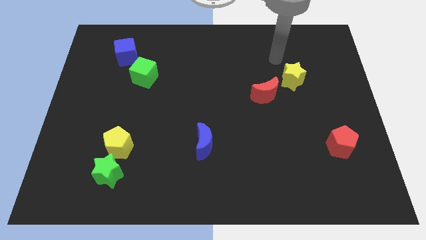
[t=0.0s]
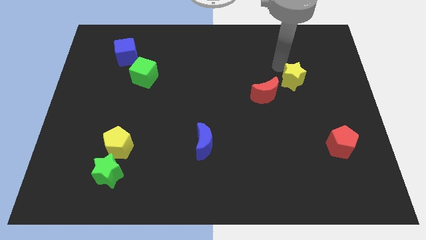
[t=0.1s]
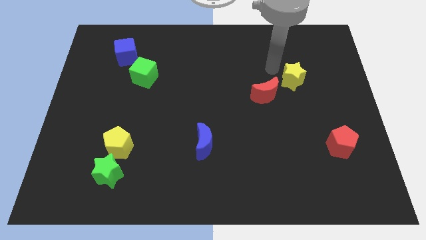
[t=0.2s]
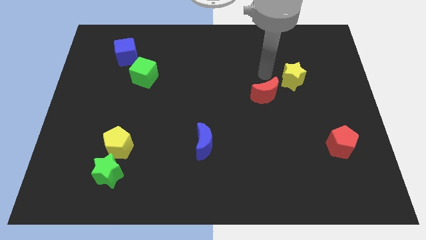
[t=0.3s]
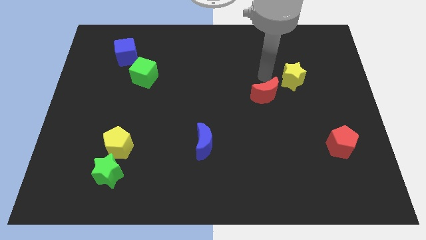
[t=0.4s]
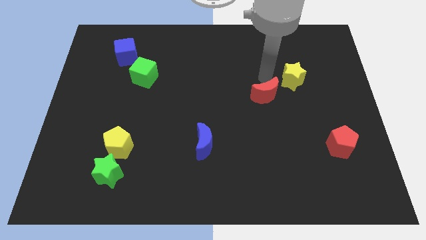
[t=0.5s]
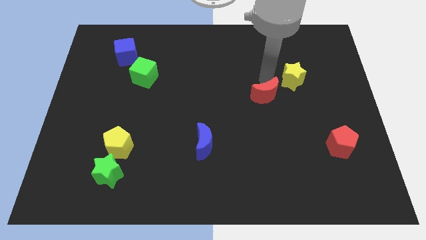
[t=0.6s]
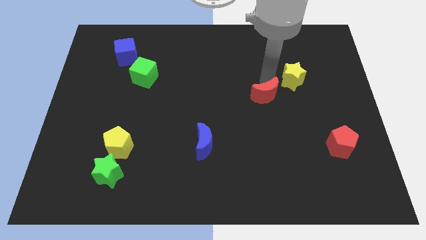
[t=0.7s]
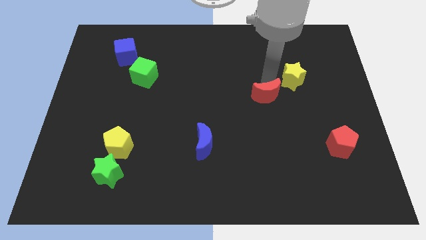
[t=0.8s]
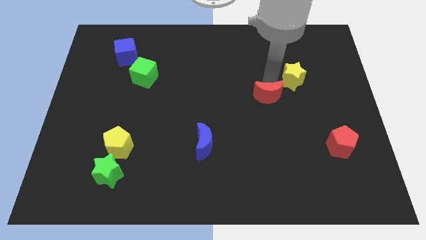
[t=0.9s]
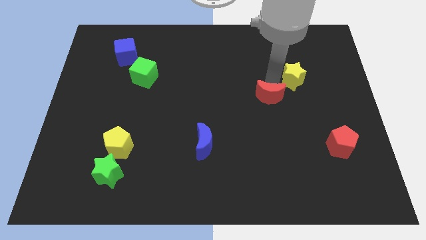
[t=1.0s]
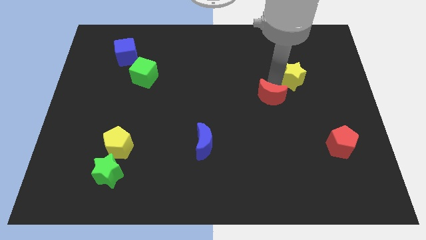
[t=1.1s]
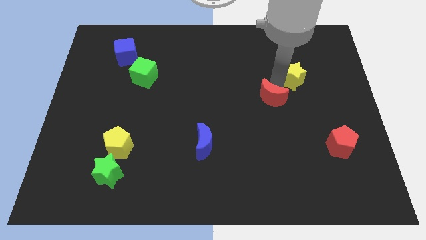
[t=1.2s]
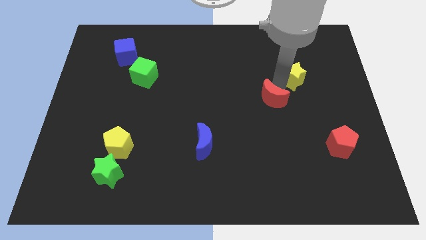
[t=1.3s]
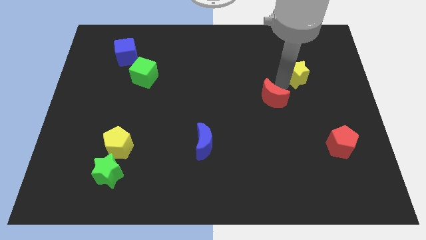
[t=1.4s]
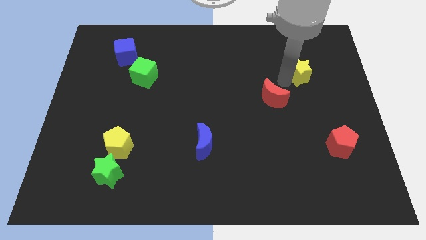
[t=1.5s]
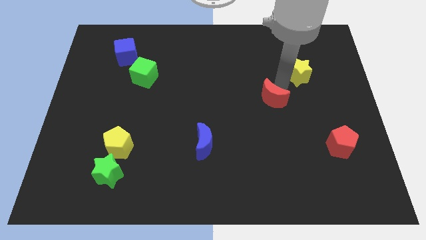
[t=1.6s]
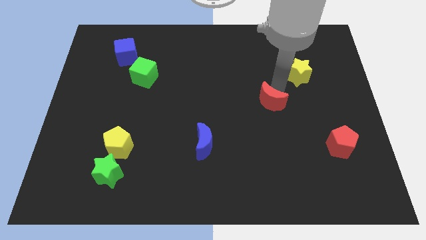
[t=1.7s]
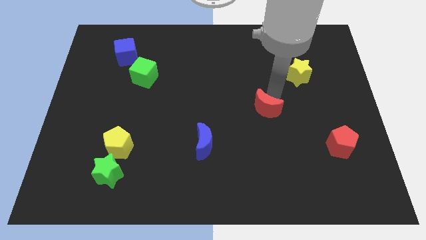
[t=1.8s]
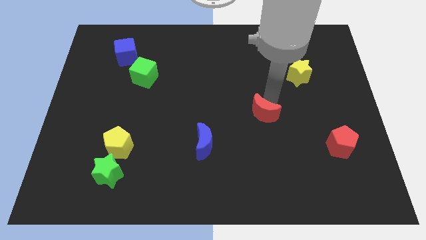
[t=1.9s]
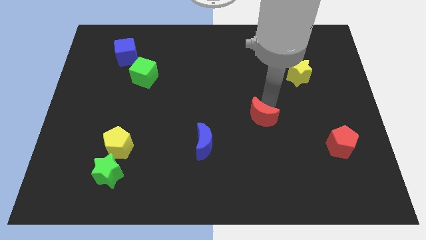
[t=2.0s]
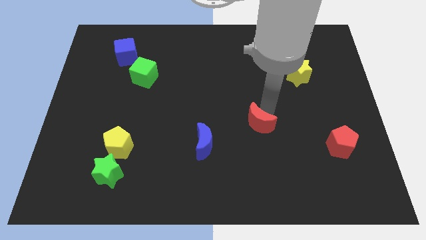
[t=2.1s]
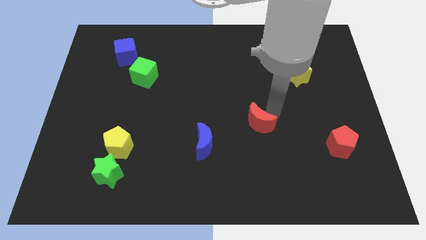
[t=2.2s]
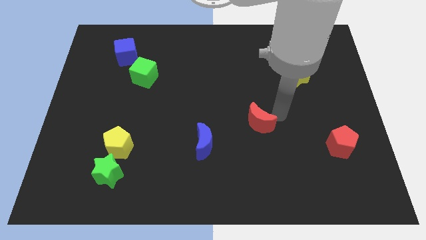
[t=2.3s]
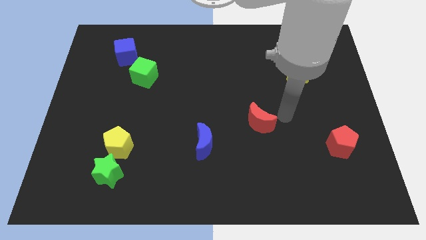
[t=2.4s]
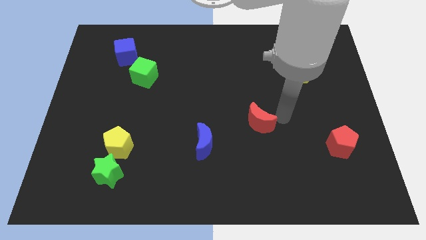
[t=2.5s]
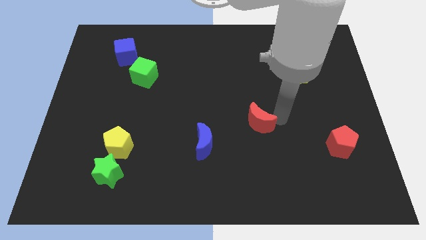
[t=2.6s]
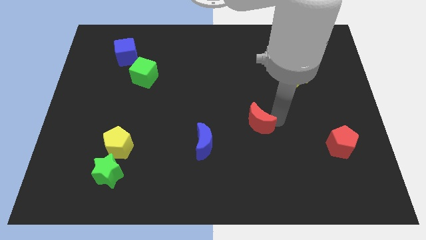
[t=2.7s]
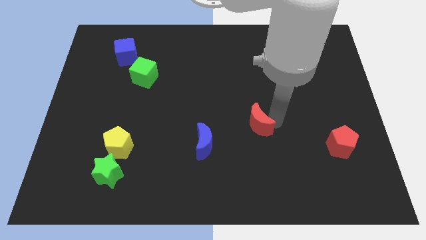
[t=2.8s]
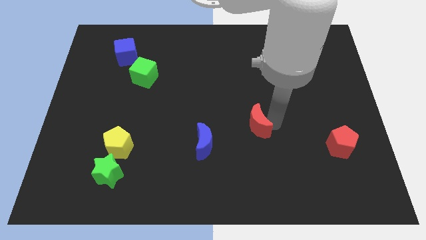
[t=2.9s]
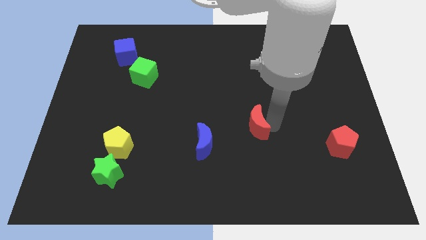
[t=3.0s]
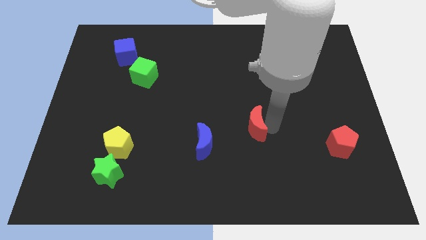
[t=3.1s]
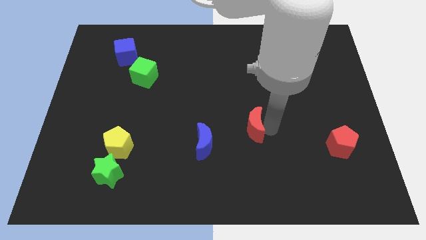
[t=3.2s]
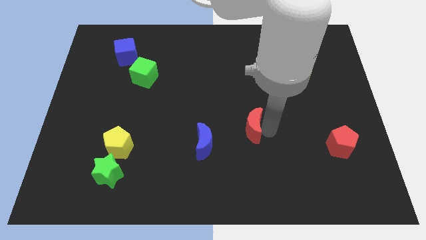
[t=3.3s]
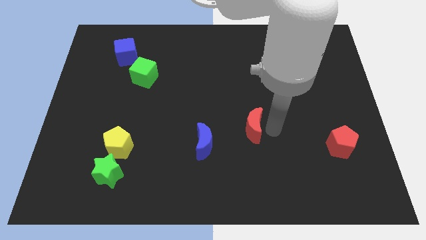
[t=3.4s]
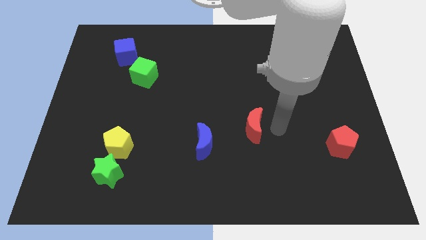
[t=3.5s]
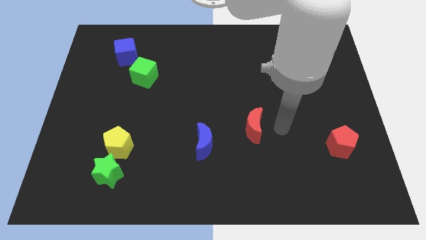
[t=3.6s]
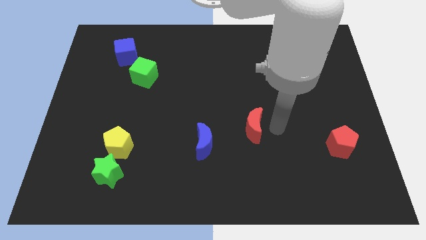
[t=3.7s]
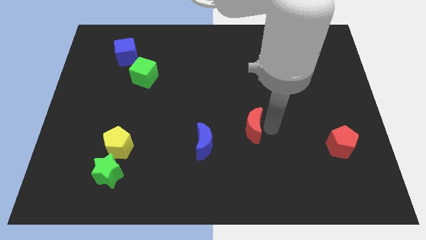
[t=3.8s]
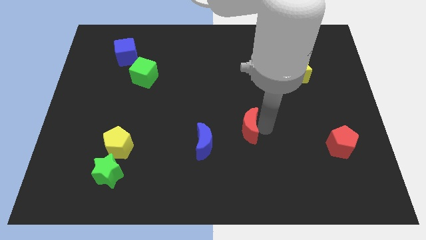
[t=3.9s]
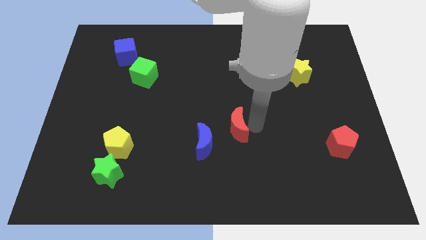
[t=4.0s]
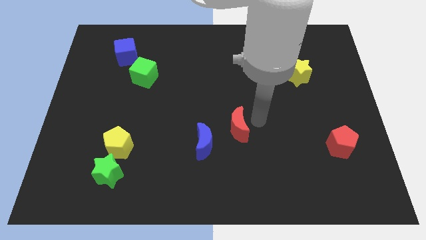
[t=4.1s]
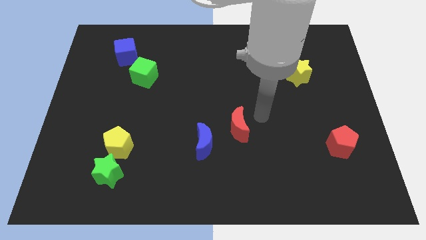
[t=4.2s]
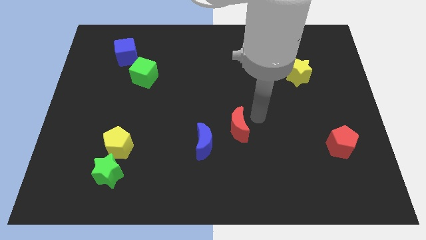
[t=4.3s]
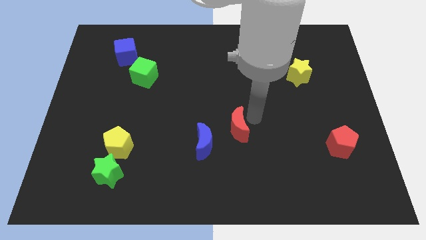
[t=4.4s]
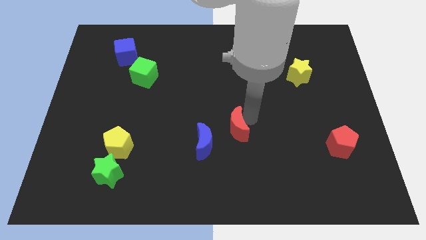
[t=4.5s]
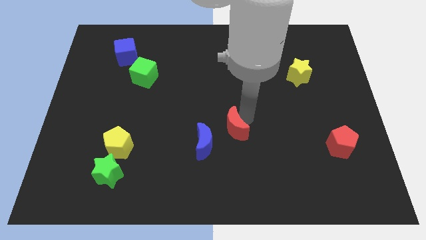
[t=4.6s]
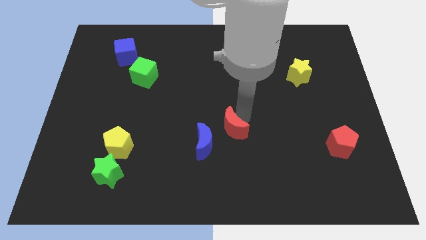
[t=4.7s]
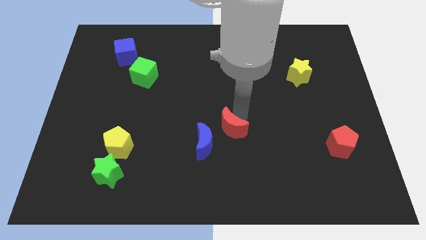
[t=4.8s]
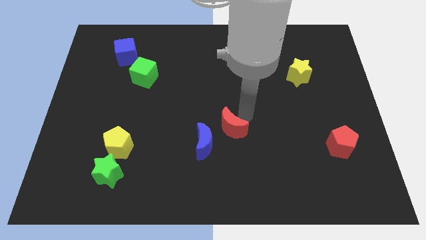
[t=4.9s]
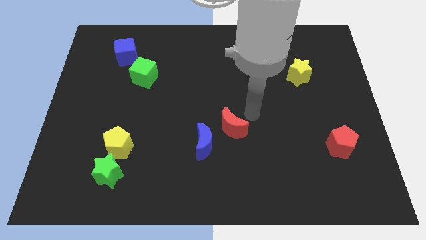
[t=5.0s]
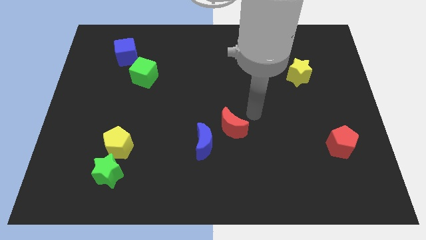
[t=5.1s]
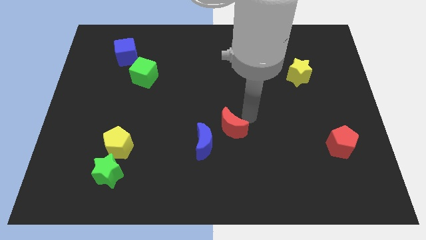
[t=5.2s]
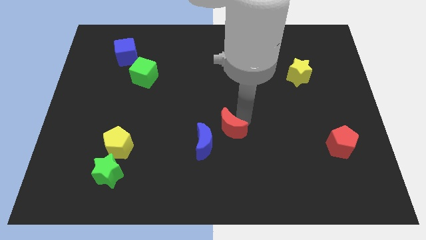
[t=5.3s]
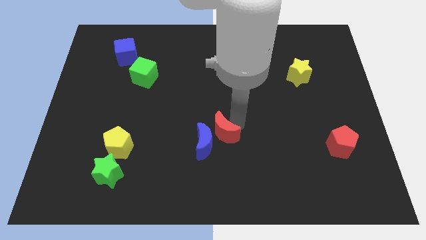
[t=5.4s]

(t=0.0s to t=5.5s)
move the red moon next to the blue moon
